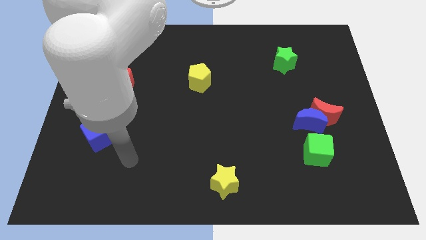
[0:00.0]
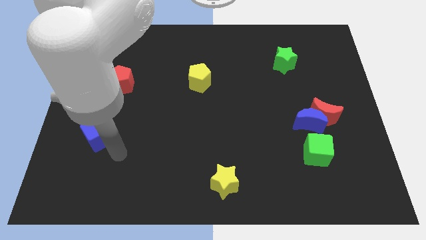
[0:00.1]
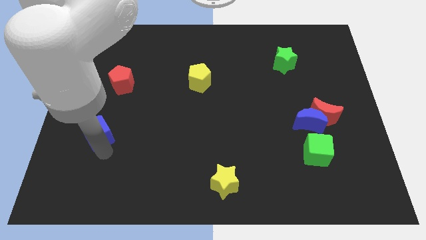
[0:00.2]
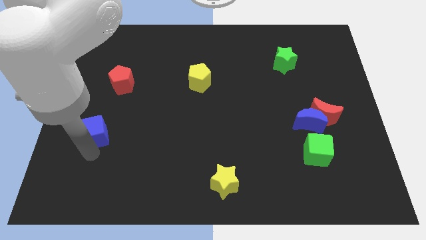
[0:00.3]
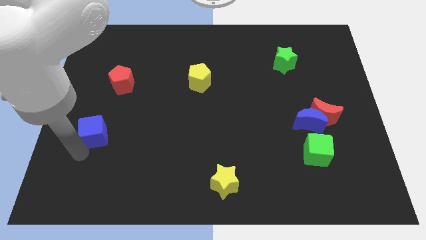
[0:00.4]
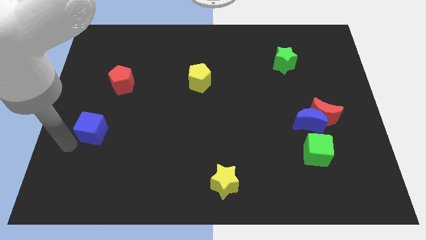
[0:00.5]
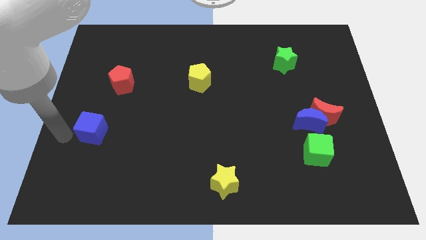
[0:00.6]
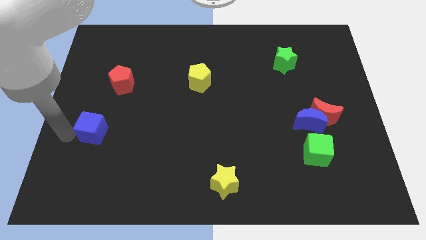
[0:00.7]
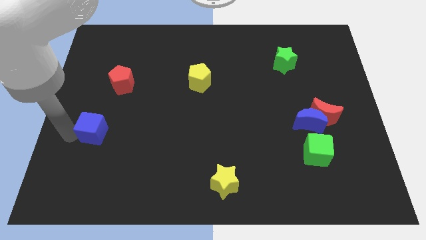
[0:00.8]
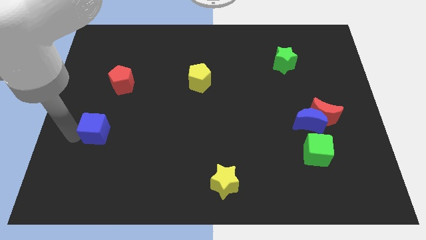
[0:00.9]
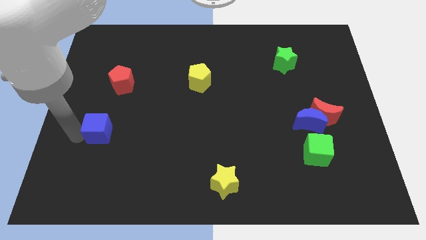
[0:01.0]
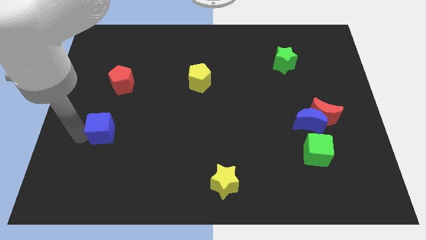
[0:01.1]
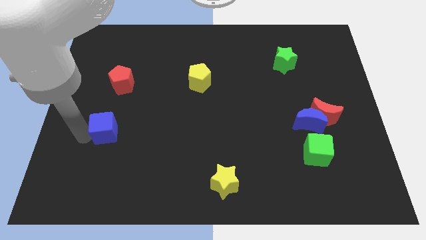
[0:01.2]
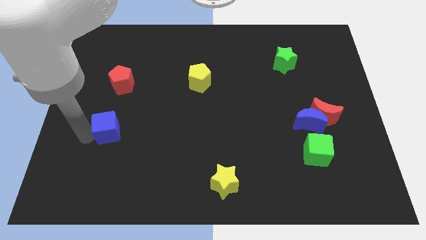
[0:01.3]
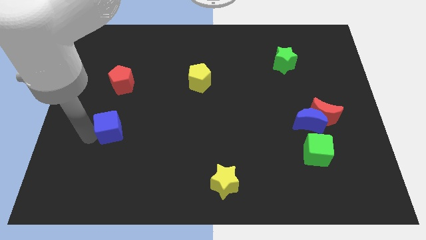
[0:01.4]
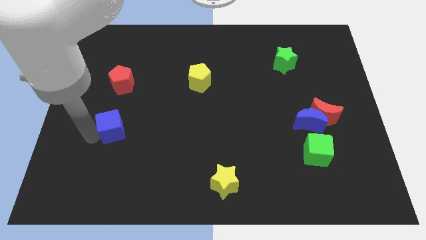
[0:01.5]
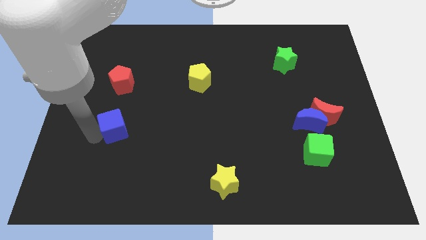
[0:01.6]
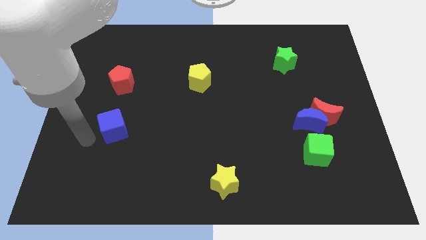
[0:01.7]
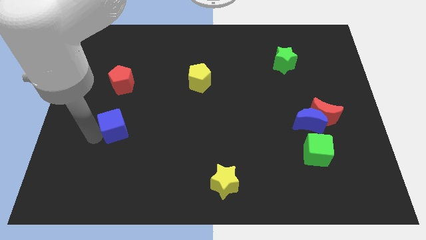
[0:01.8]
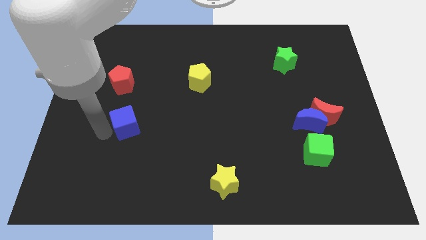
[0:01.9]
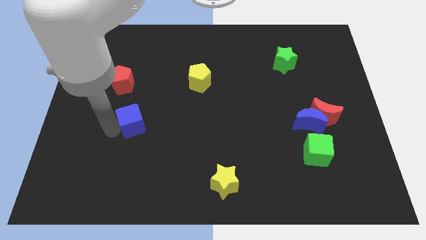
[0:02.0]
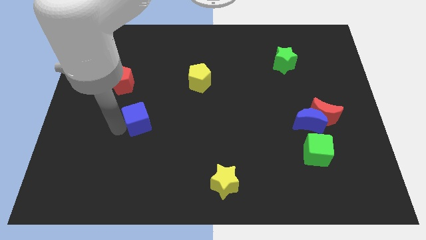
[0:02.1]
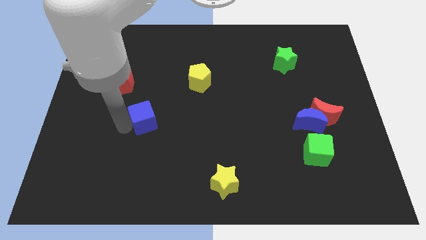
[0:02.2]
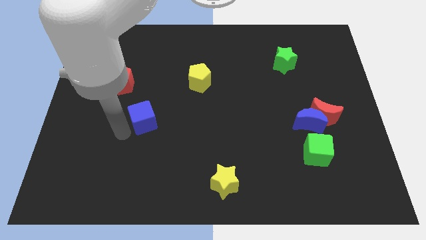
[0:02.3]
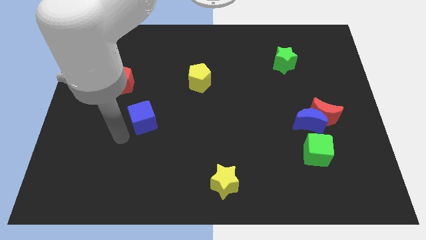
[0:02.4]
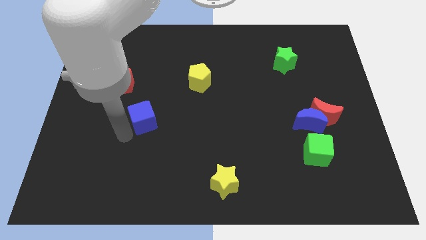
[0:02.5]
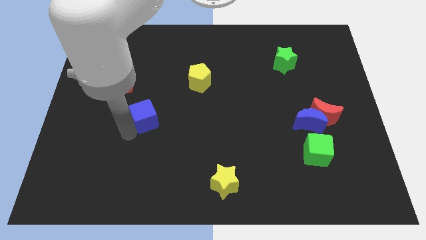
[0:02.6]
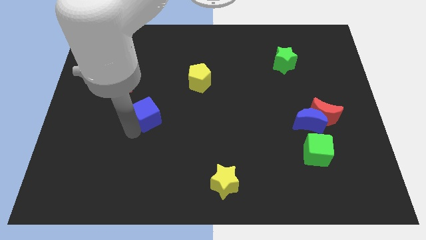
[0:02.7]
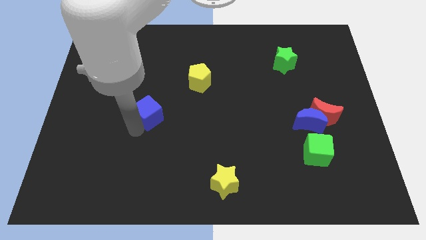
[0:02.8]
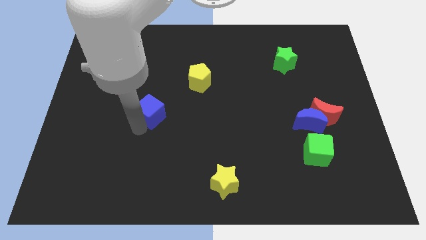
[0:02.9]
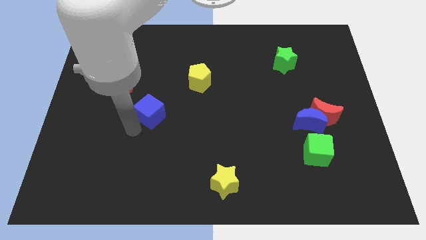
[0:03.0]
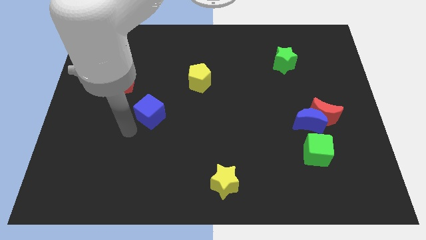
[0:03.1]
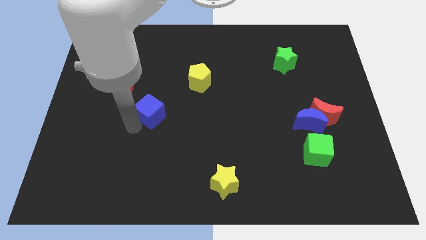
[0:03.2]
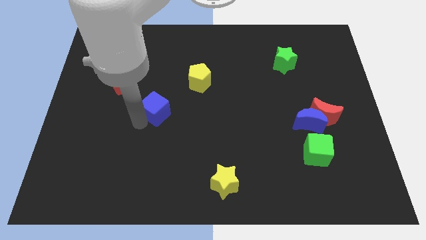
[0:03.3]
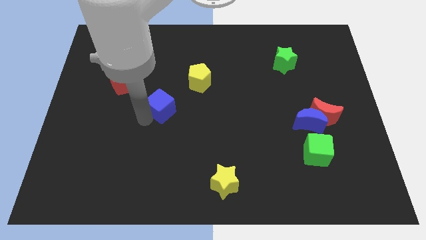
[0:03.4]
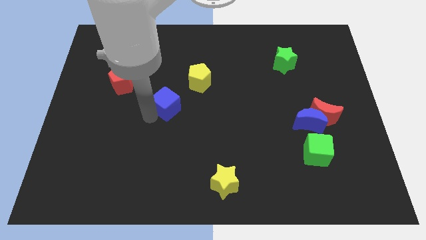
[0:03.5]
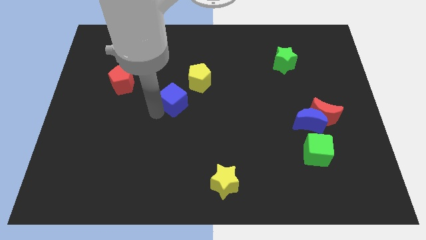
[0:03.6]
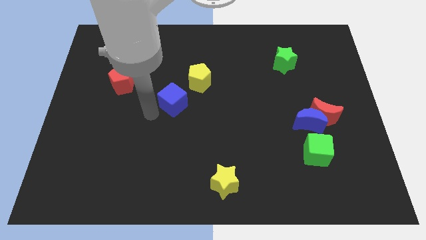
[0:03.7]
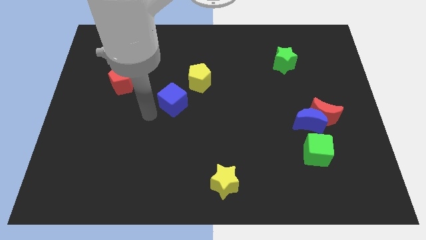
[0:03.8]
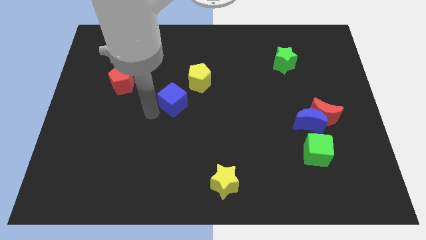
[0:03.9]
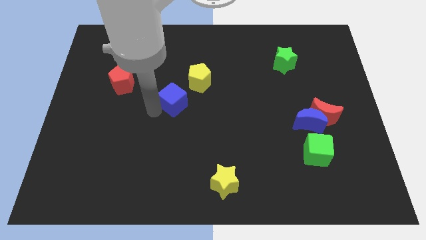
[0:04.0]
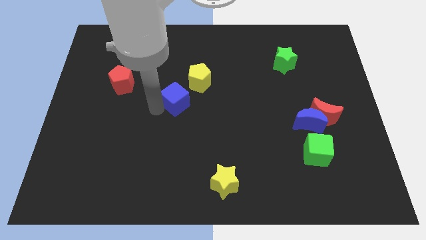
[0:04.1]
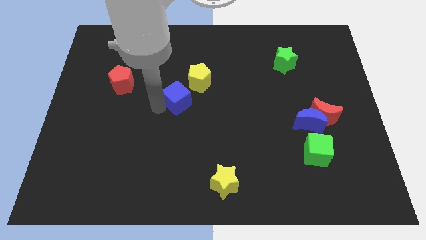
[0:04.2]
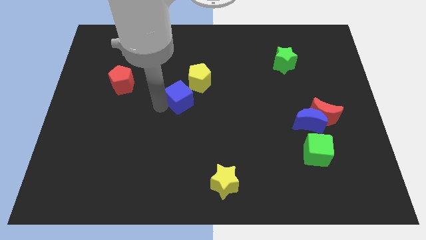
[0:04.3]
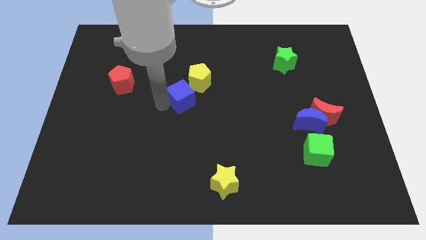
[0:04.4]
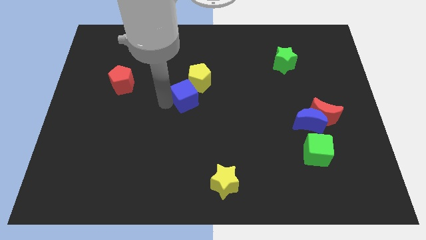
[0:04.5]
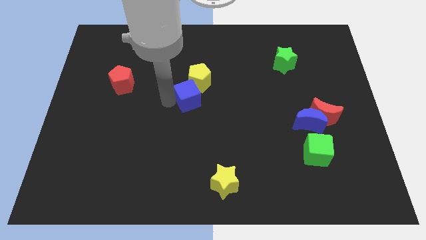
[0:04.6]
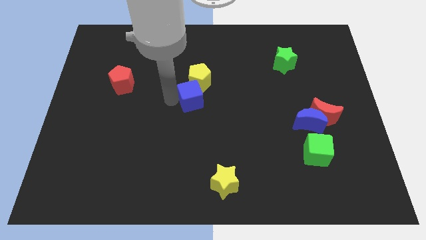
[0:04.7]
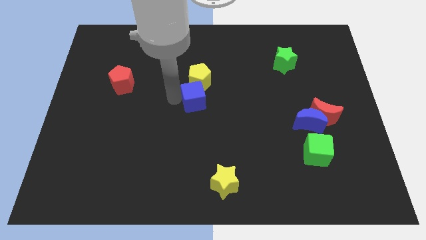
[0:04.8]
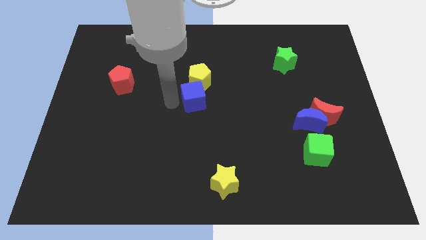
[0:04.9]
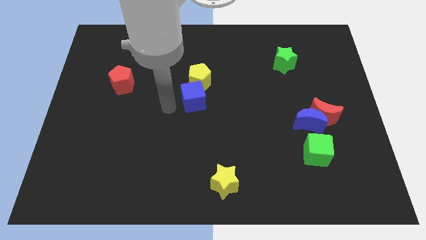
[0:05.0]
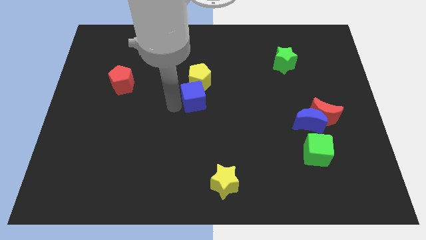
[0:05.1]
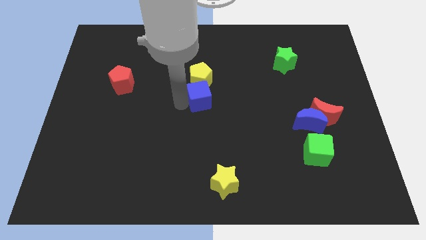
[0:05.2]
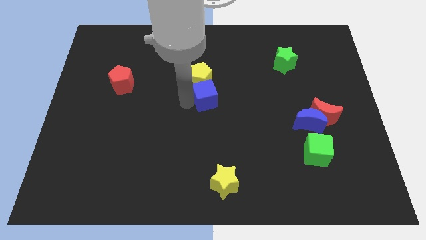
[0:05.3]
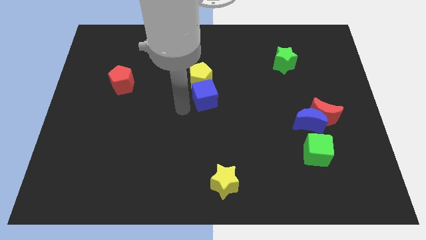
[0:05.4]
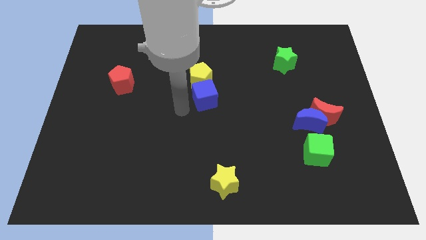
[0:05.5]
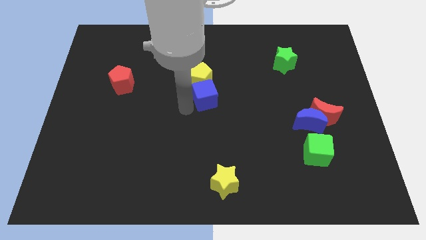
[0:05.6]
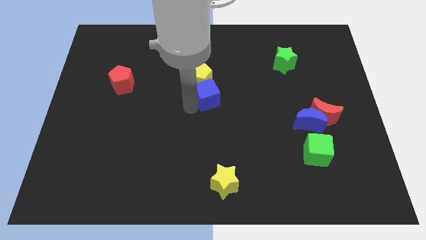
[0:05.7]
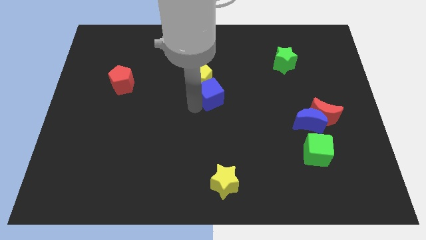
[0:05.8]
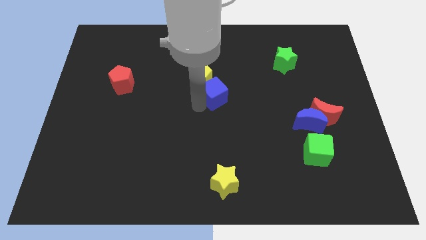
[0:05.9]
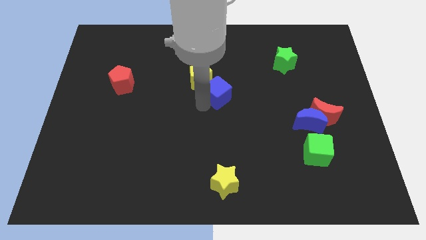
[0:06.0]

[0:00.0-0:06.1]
push the blue cube right of the yellow pentagon

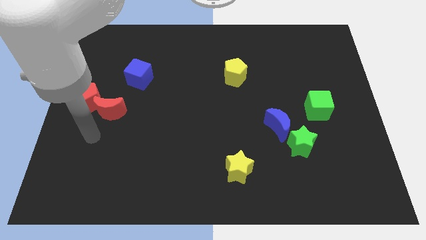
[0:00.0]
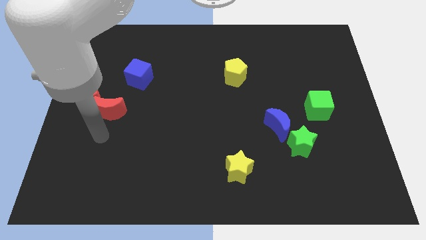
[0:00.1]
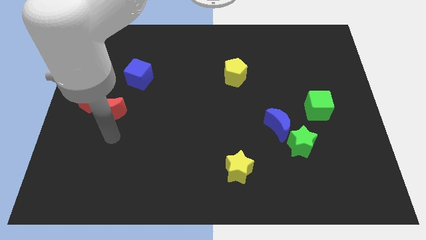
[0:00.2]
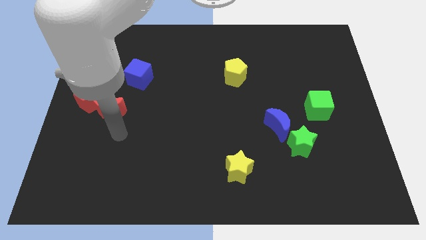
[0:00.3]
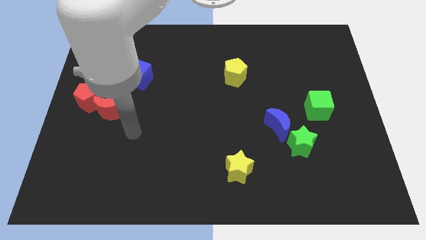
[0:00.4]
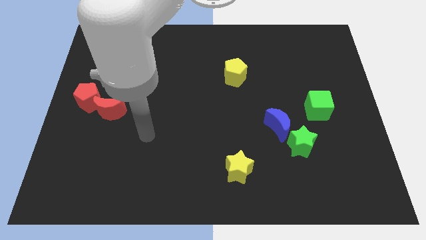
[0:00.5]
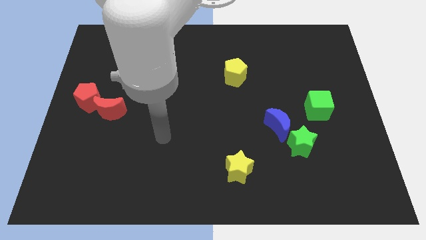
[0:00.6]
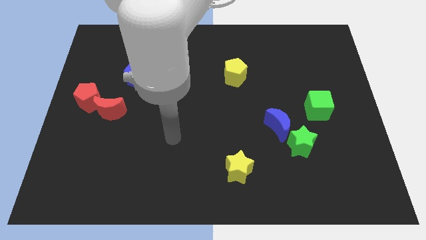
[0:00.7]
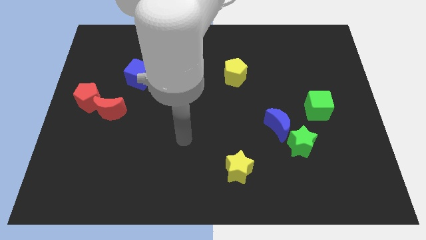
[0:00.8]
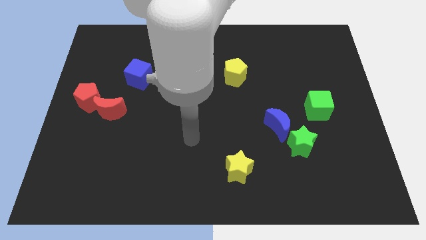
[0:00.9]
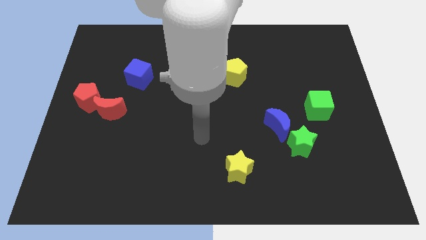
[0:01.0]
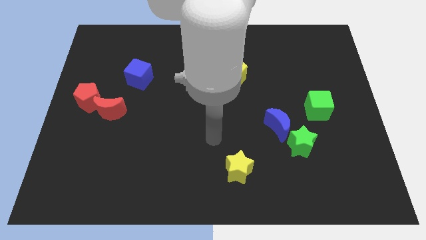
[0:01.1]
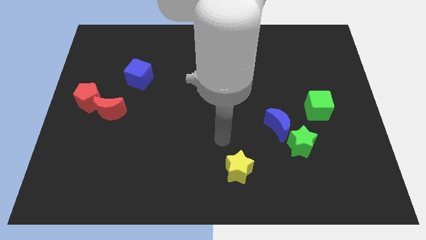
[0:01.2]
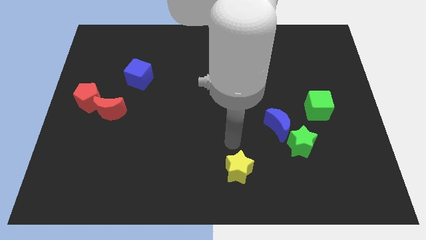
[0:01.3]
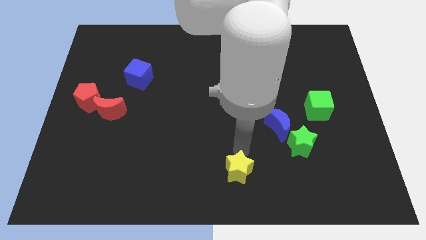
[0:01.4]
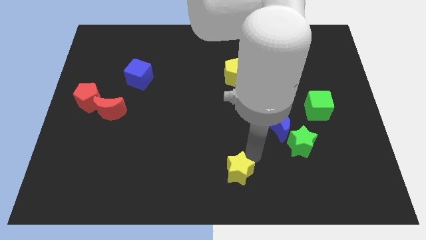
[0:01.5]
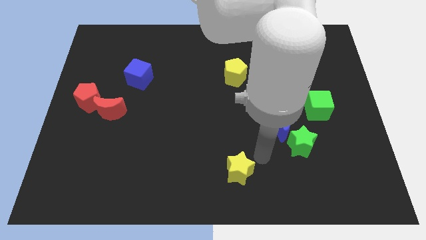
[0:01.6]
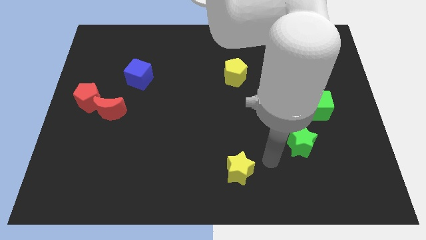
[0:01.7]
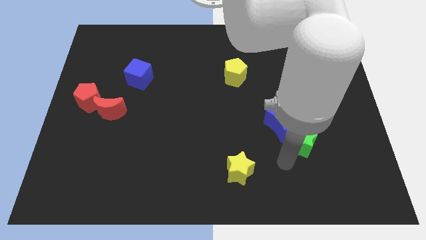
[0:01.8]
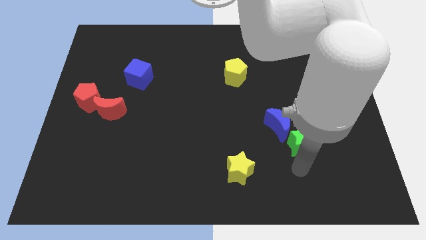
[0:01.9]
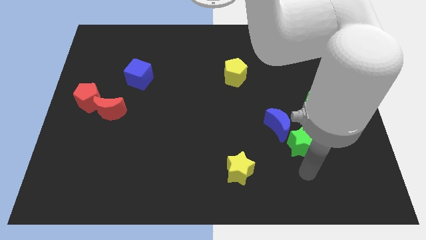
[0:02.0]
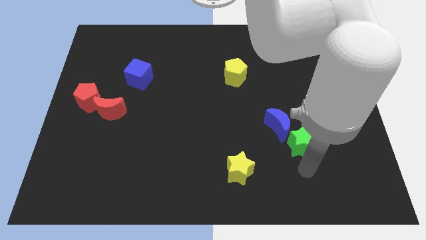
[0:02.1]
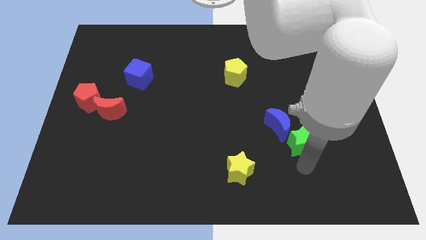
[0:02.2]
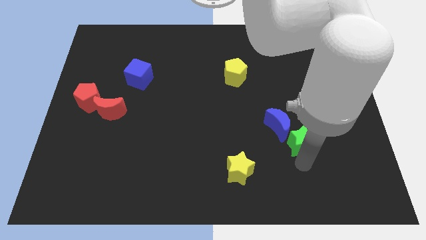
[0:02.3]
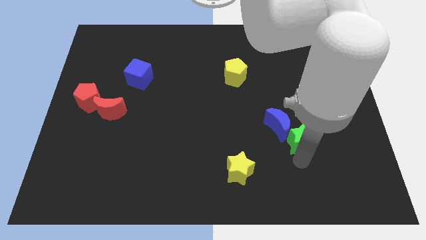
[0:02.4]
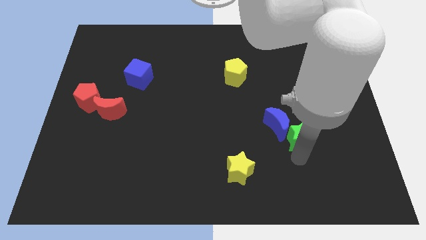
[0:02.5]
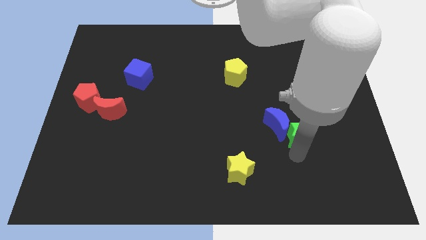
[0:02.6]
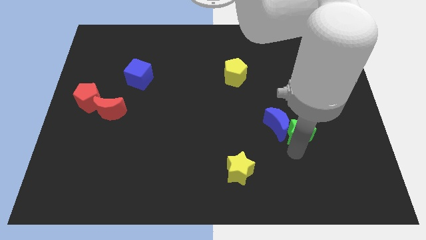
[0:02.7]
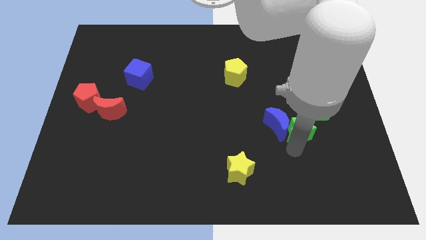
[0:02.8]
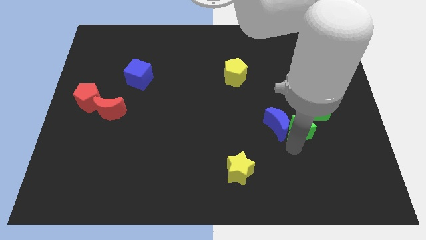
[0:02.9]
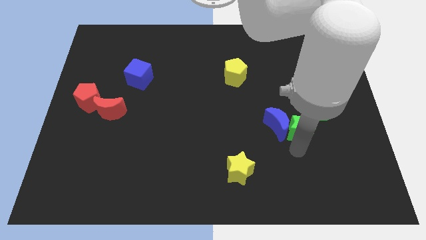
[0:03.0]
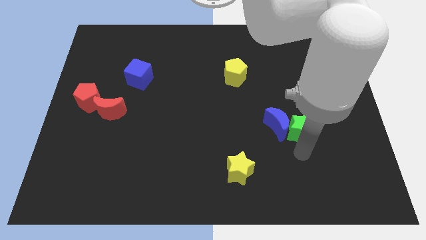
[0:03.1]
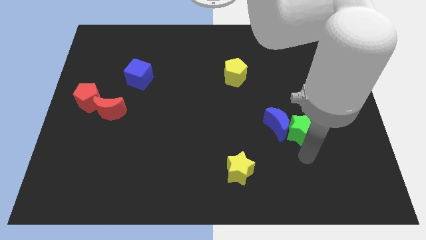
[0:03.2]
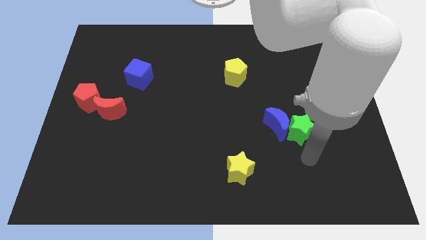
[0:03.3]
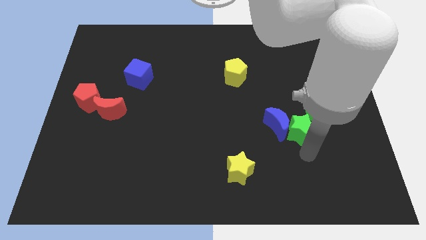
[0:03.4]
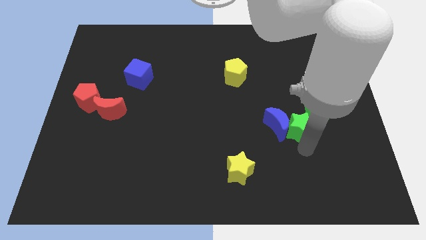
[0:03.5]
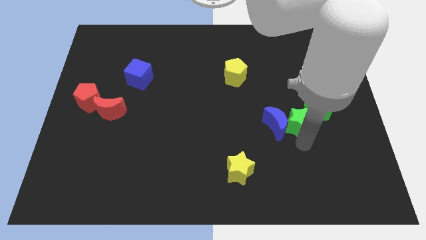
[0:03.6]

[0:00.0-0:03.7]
move the green star to the left side of the green cube
